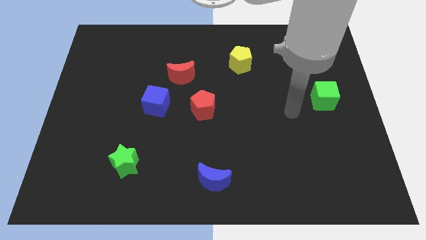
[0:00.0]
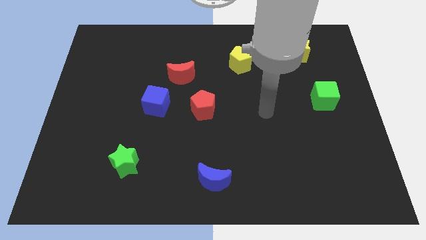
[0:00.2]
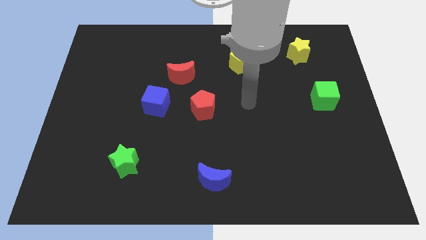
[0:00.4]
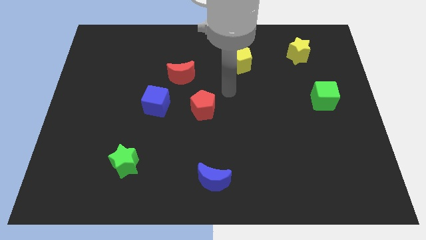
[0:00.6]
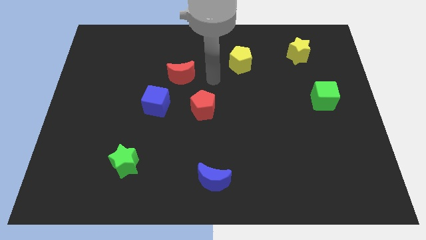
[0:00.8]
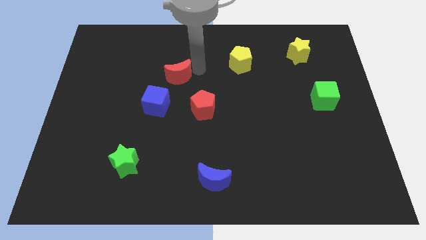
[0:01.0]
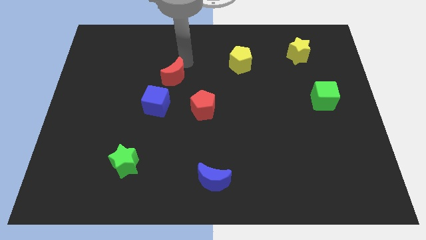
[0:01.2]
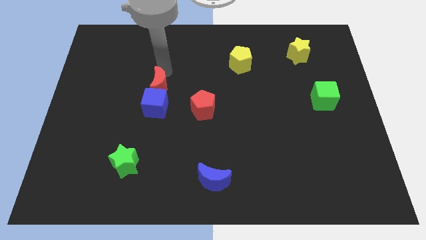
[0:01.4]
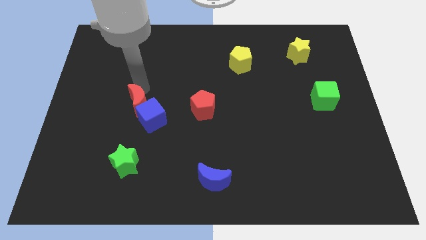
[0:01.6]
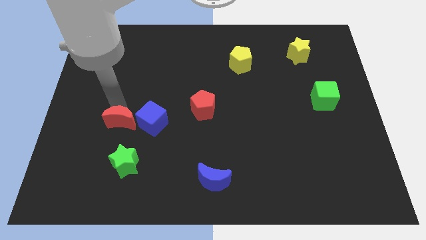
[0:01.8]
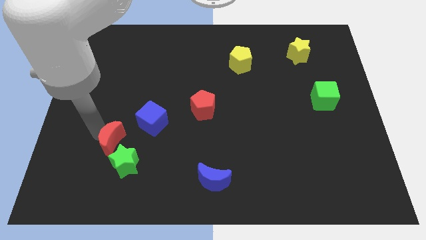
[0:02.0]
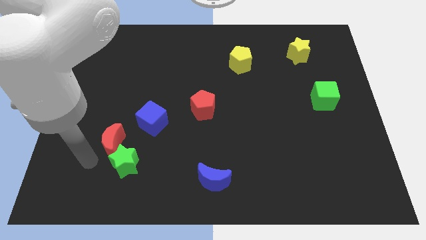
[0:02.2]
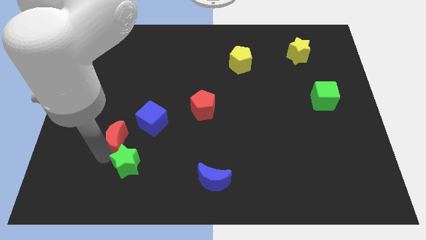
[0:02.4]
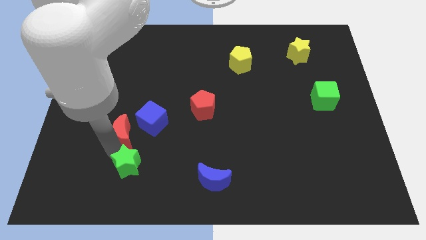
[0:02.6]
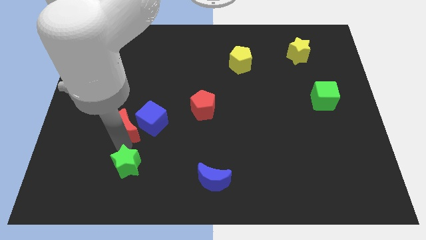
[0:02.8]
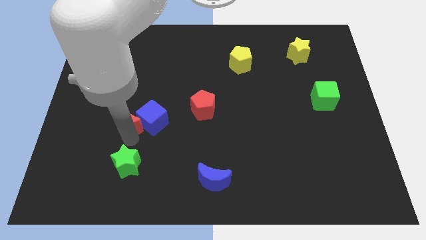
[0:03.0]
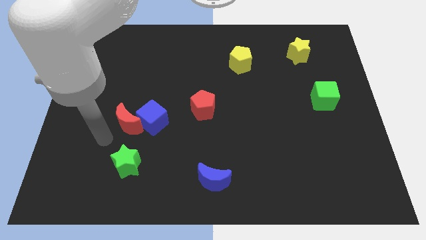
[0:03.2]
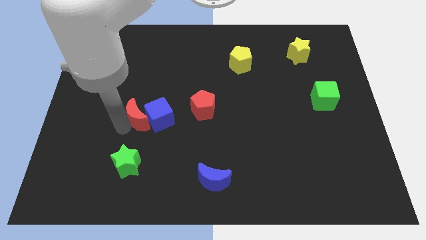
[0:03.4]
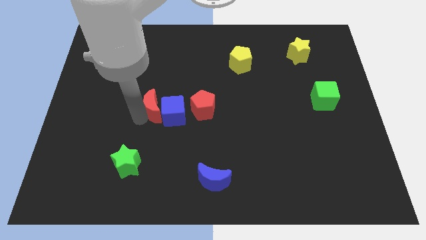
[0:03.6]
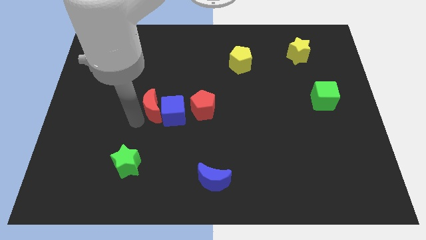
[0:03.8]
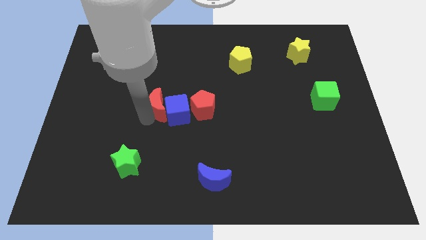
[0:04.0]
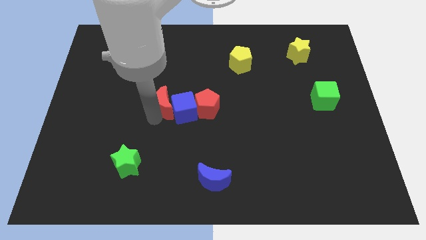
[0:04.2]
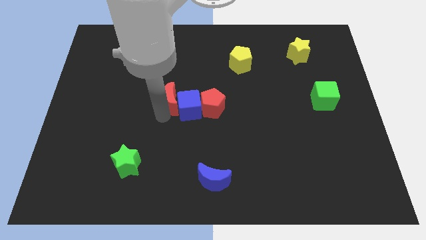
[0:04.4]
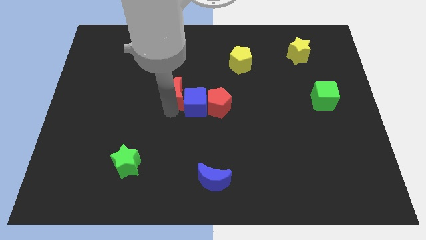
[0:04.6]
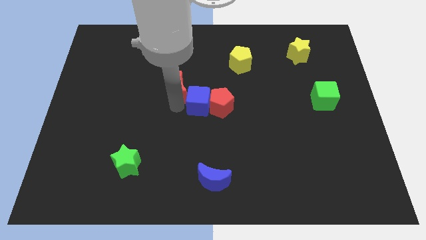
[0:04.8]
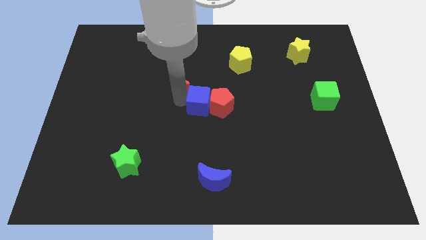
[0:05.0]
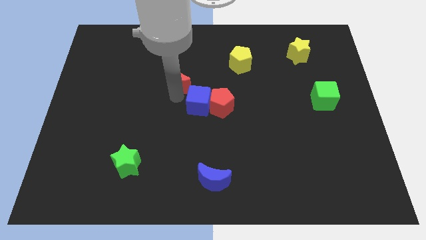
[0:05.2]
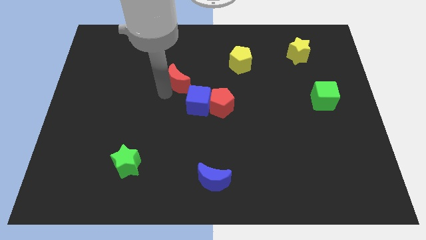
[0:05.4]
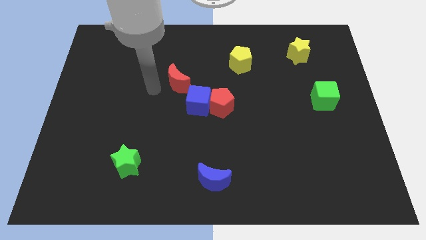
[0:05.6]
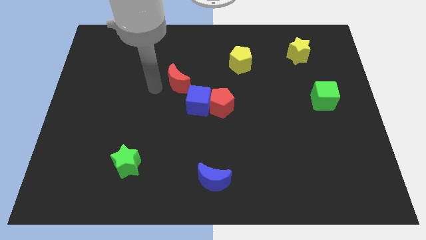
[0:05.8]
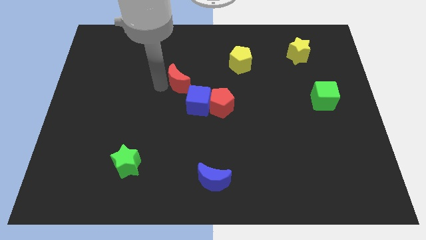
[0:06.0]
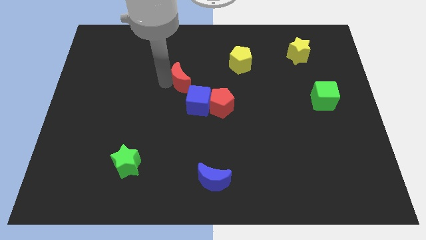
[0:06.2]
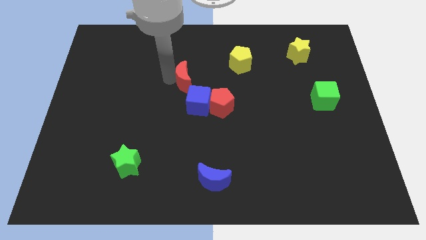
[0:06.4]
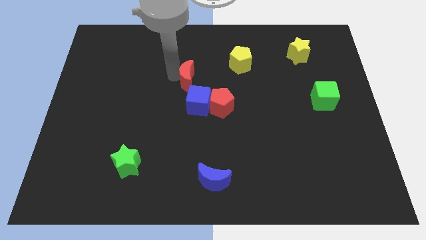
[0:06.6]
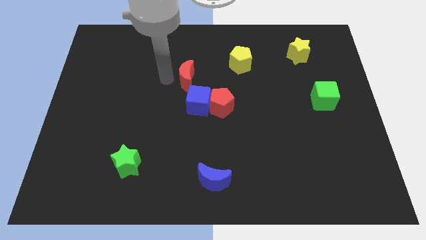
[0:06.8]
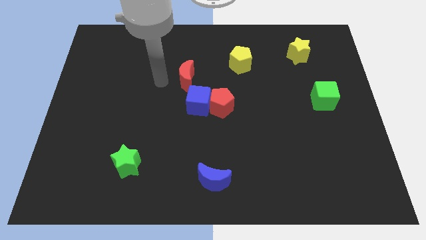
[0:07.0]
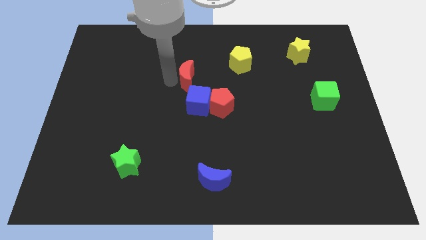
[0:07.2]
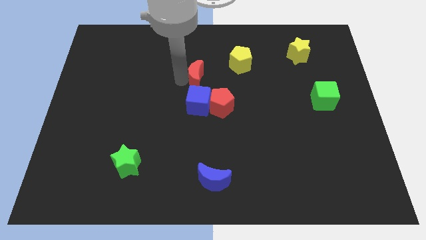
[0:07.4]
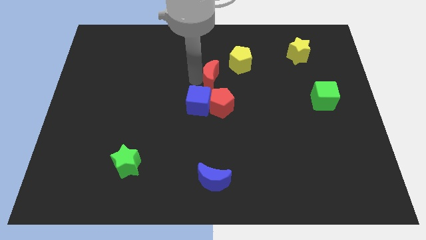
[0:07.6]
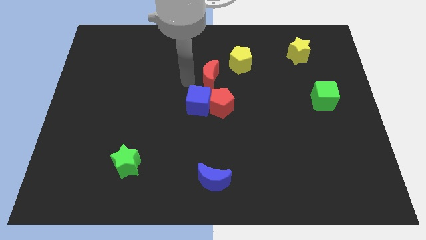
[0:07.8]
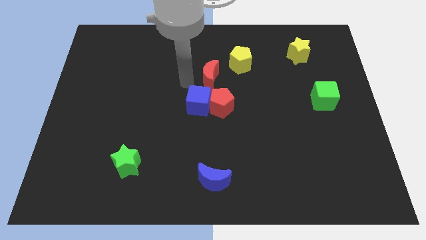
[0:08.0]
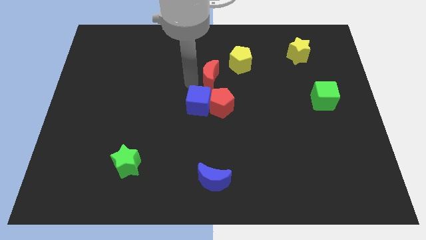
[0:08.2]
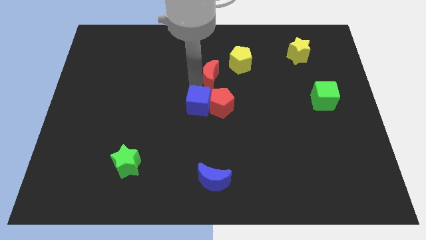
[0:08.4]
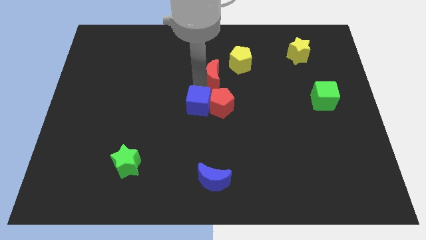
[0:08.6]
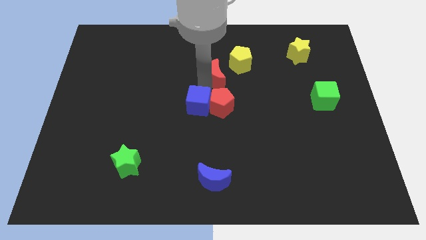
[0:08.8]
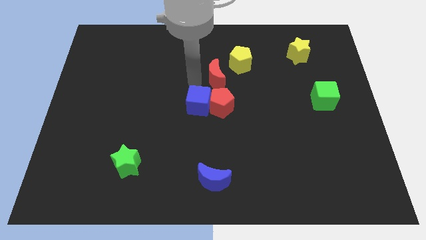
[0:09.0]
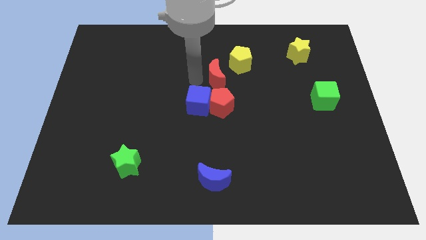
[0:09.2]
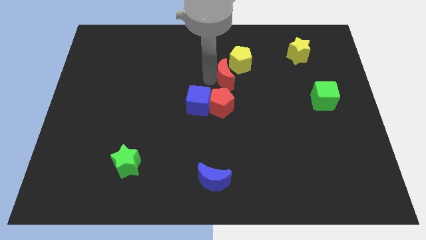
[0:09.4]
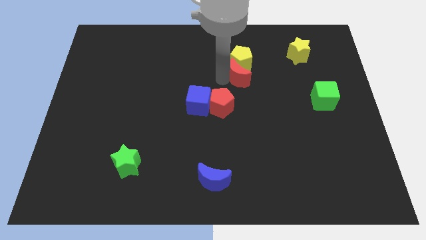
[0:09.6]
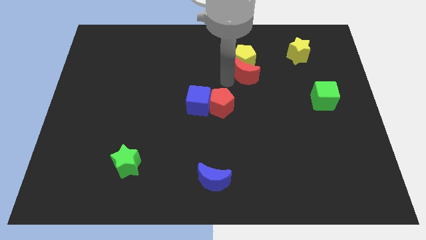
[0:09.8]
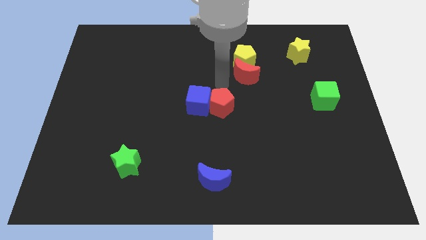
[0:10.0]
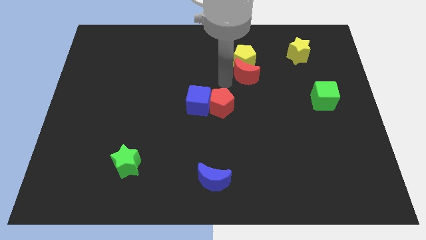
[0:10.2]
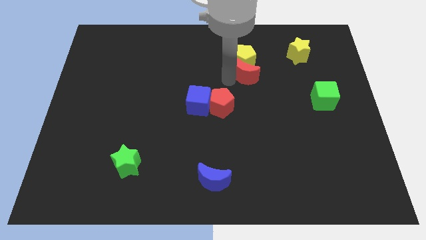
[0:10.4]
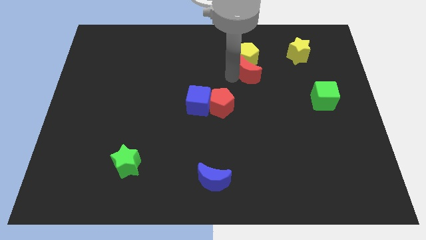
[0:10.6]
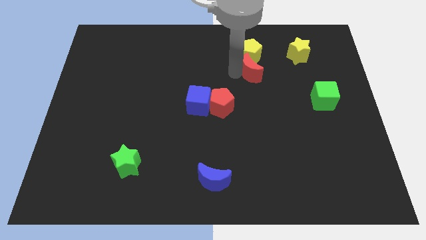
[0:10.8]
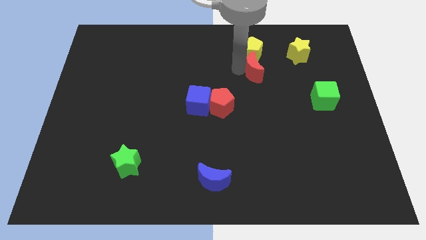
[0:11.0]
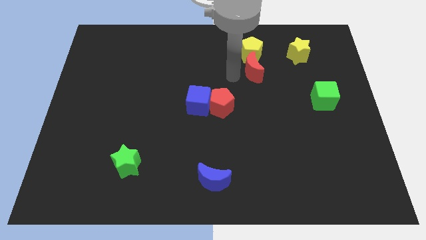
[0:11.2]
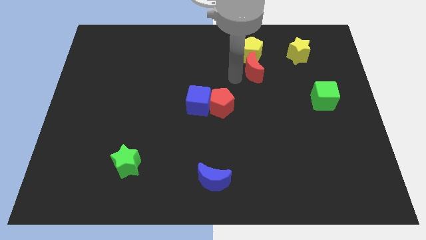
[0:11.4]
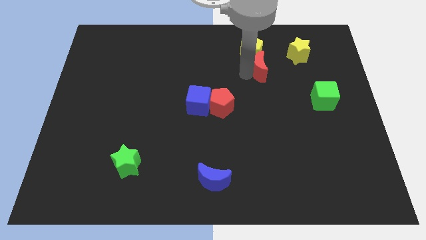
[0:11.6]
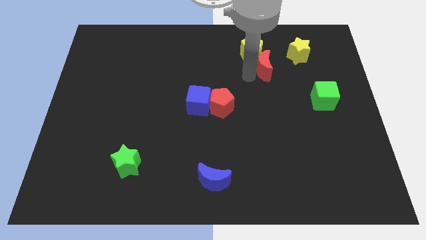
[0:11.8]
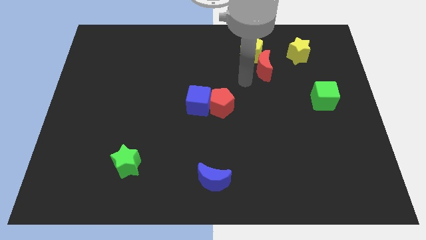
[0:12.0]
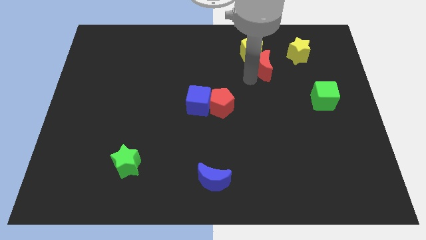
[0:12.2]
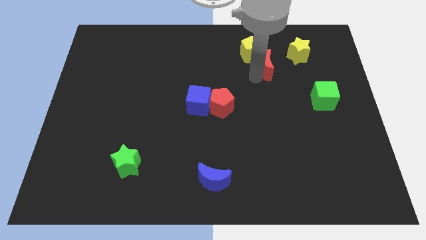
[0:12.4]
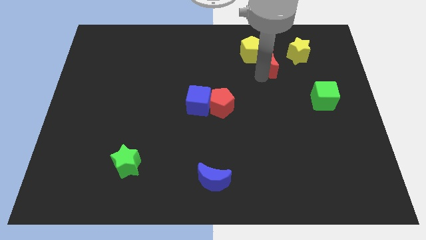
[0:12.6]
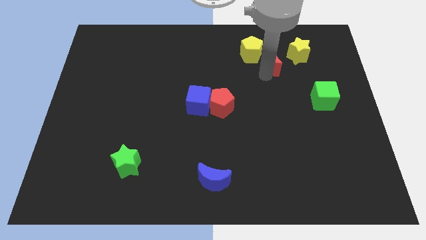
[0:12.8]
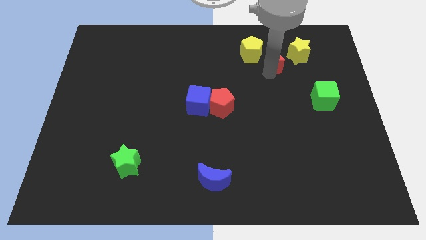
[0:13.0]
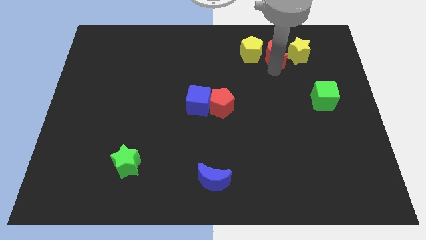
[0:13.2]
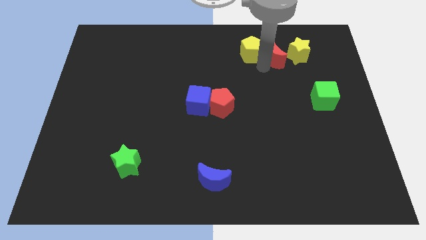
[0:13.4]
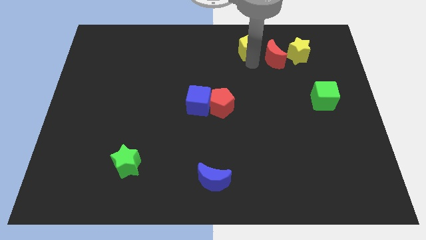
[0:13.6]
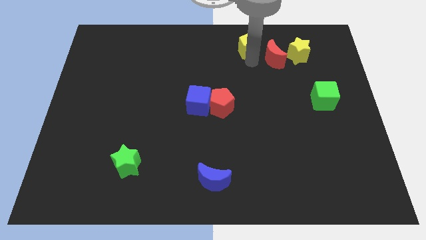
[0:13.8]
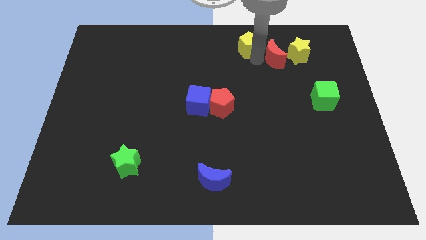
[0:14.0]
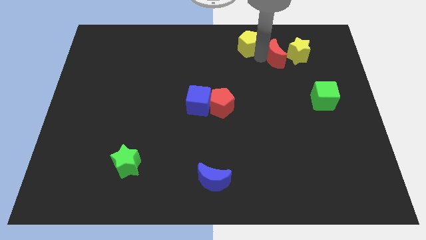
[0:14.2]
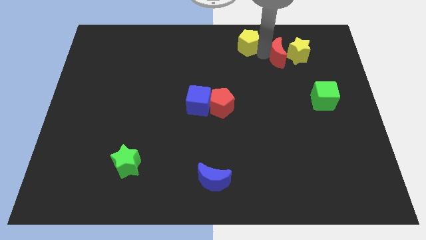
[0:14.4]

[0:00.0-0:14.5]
put the red moon to the yellow star
